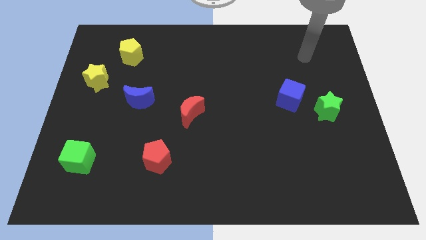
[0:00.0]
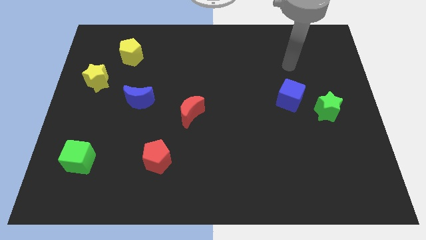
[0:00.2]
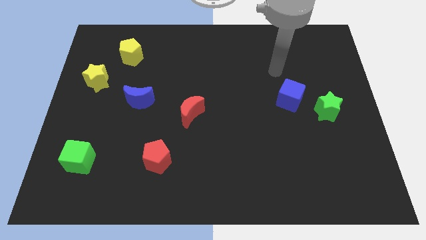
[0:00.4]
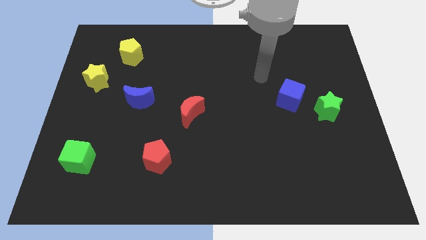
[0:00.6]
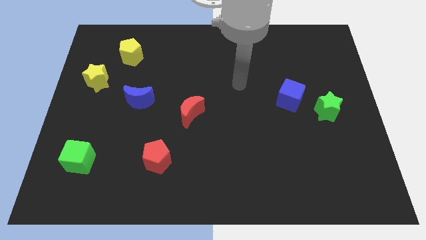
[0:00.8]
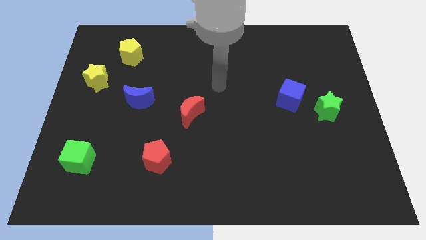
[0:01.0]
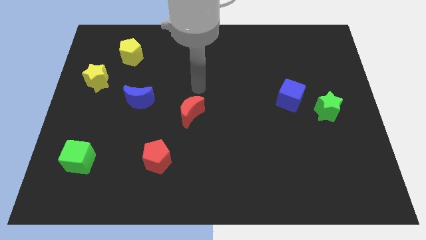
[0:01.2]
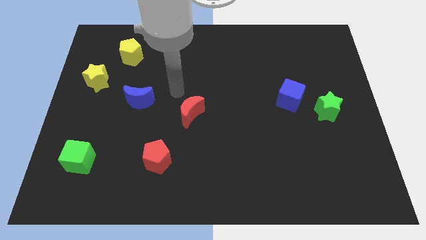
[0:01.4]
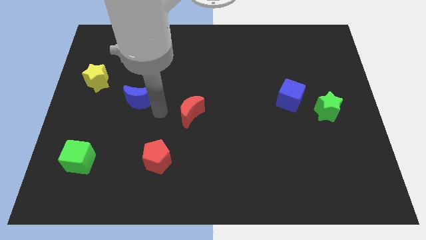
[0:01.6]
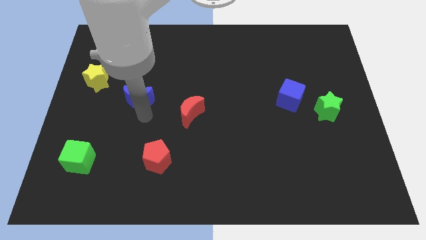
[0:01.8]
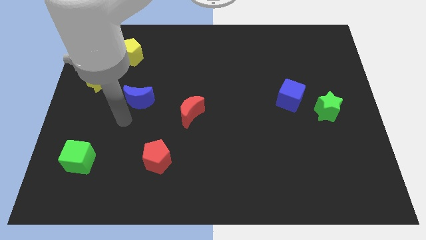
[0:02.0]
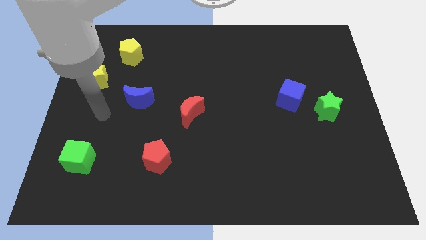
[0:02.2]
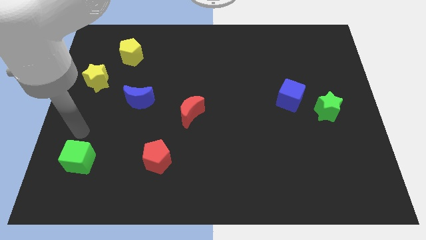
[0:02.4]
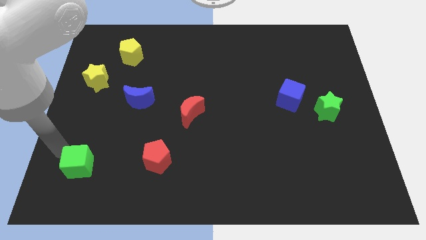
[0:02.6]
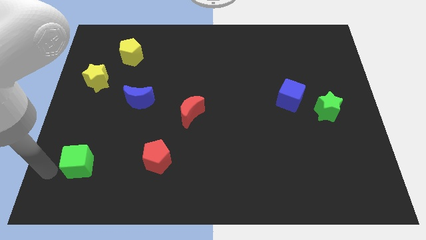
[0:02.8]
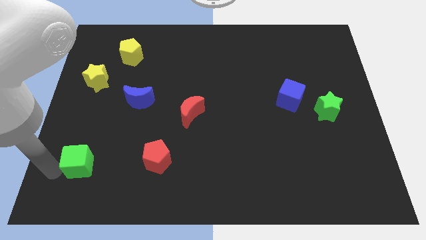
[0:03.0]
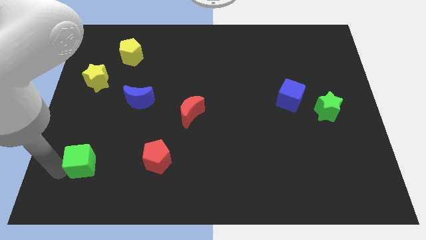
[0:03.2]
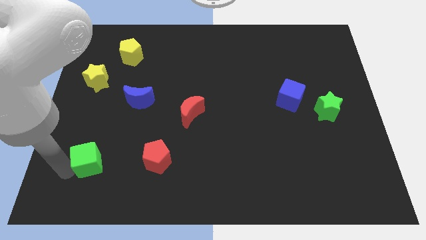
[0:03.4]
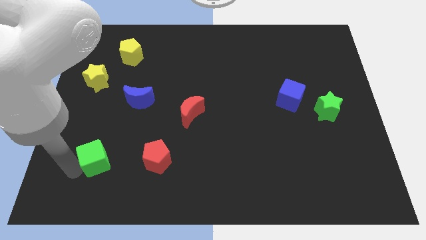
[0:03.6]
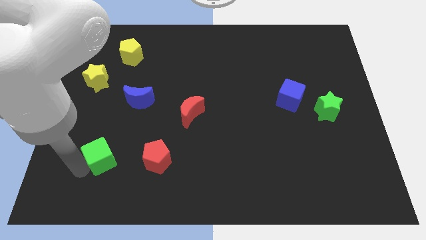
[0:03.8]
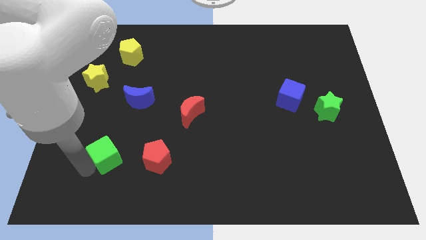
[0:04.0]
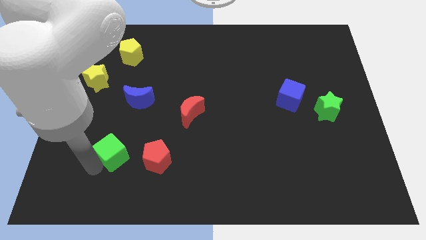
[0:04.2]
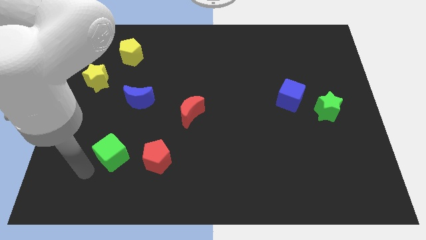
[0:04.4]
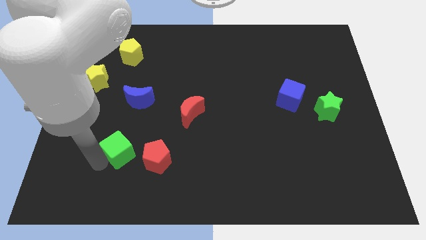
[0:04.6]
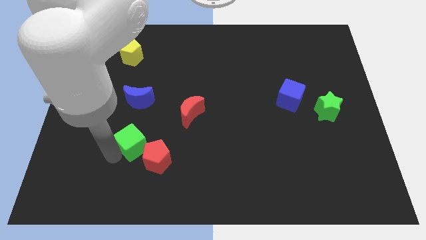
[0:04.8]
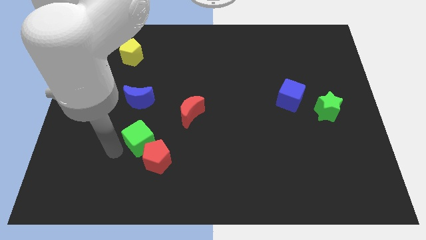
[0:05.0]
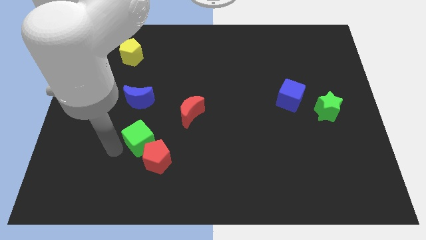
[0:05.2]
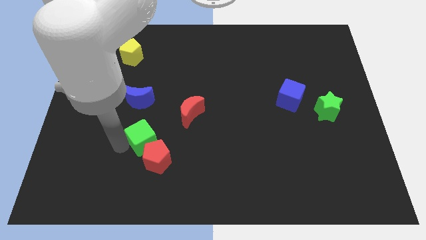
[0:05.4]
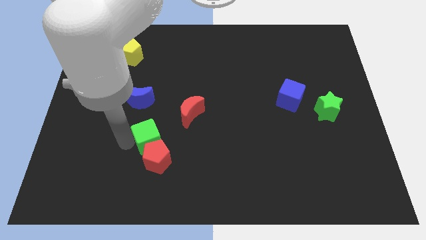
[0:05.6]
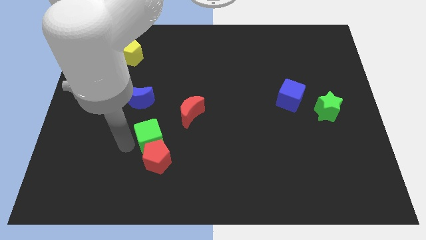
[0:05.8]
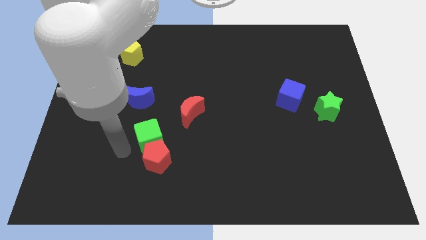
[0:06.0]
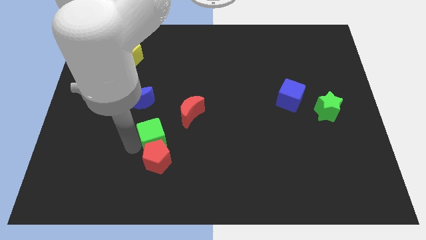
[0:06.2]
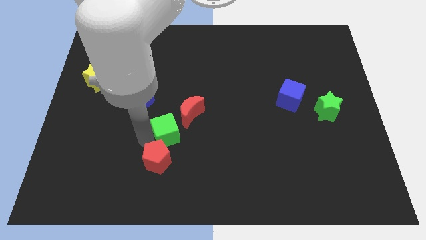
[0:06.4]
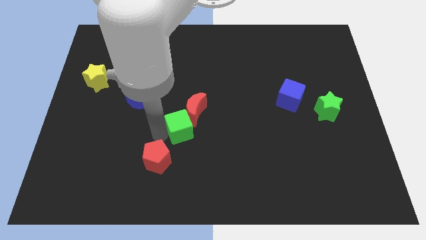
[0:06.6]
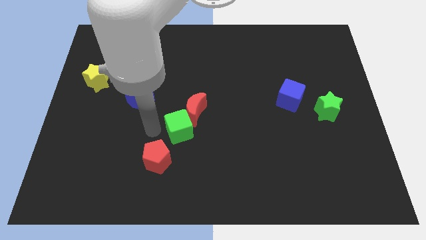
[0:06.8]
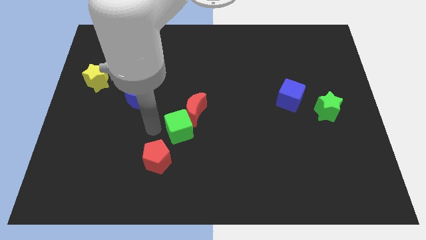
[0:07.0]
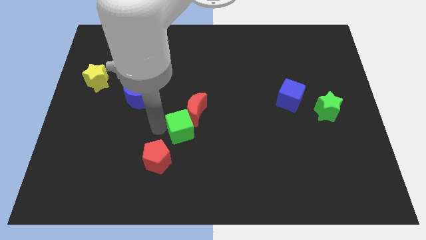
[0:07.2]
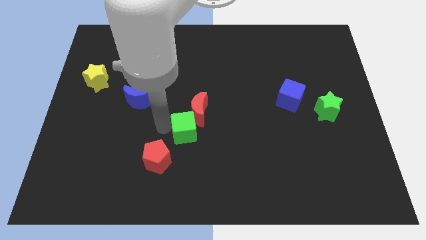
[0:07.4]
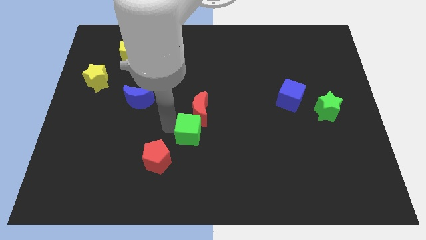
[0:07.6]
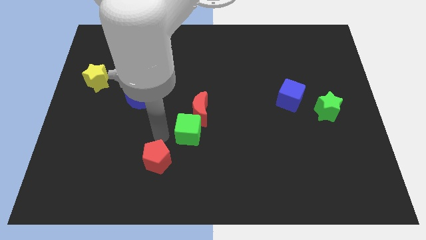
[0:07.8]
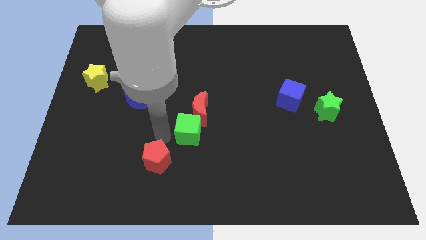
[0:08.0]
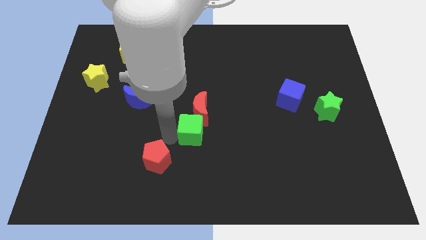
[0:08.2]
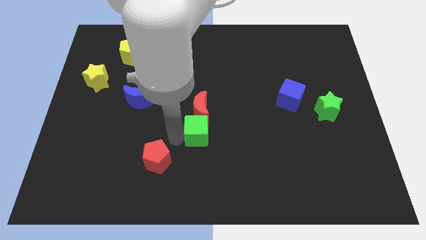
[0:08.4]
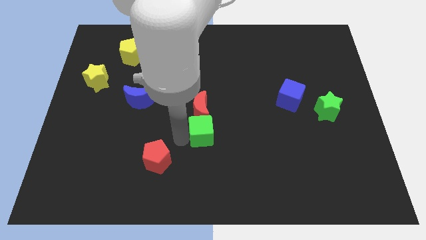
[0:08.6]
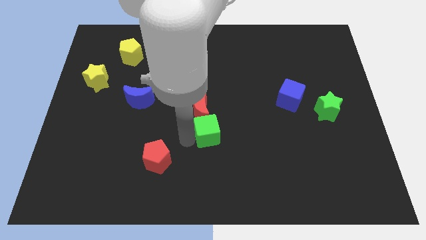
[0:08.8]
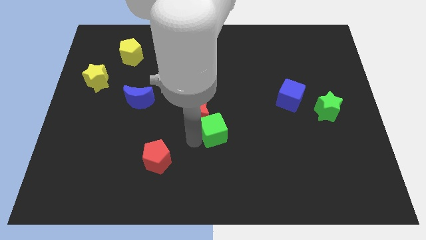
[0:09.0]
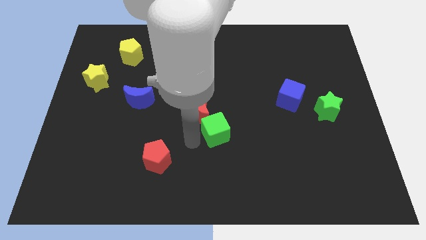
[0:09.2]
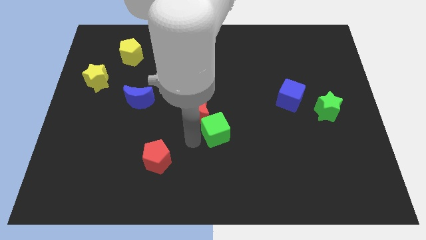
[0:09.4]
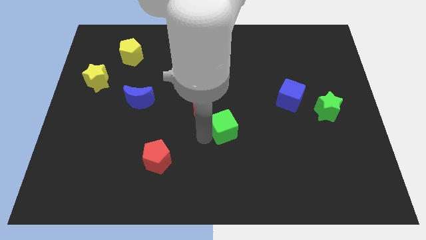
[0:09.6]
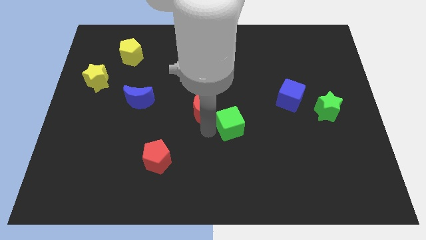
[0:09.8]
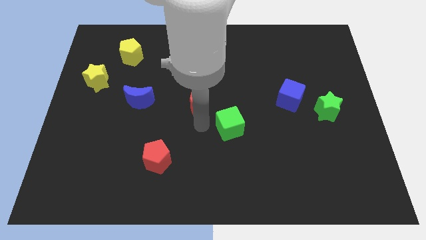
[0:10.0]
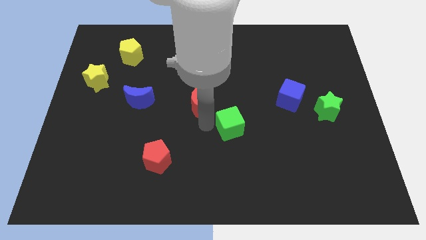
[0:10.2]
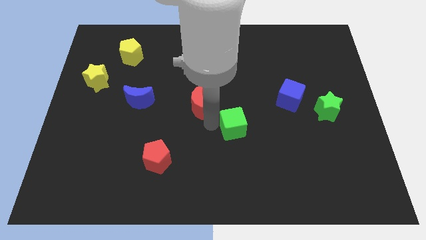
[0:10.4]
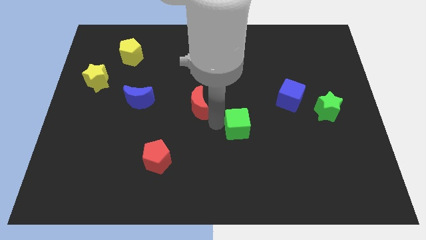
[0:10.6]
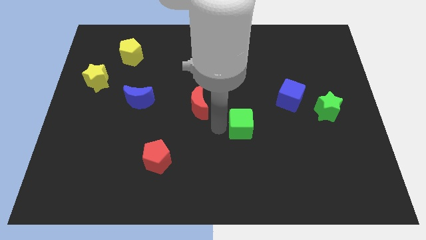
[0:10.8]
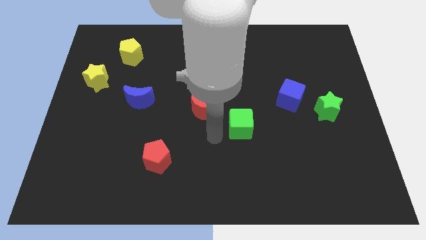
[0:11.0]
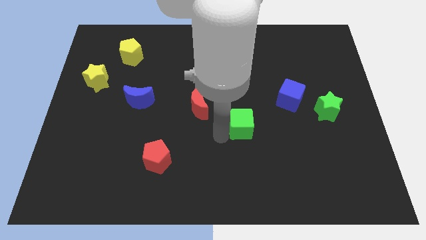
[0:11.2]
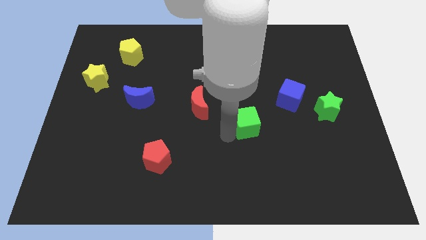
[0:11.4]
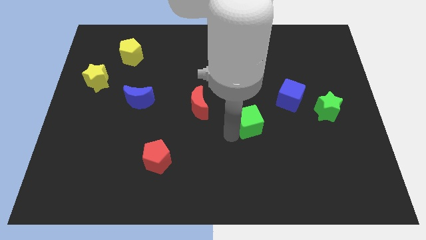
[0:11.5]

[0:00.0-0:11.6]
move the green cube to the bottom left of the blue cube

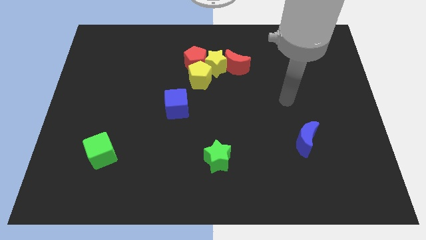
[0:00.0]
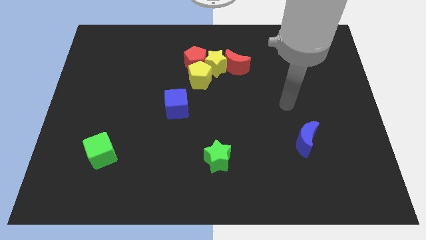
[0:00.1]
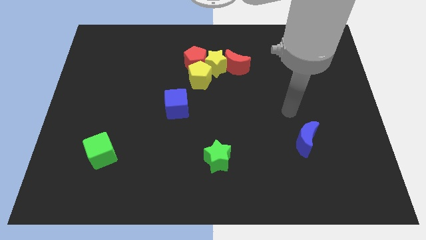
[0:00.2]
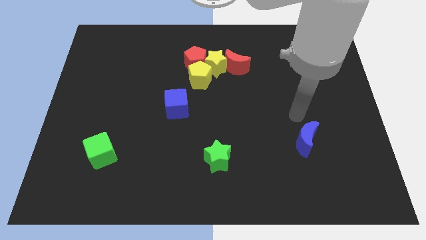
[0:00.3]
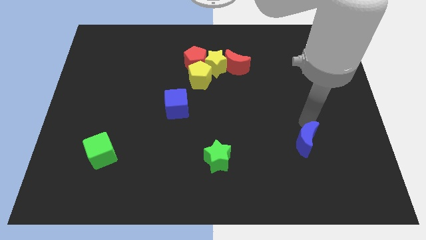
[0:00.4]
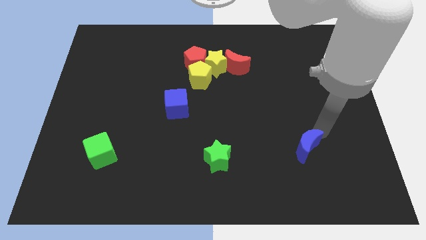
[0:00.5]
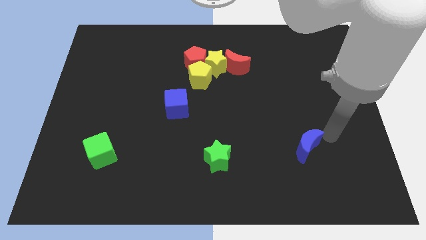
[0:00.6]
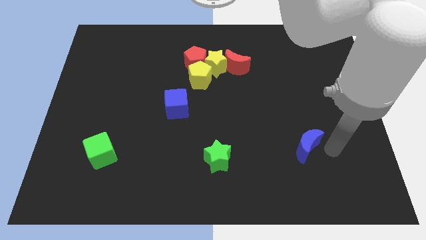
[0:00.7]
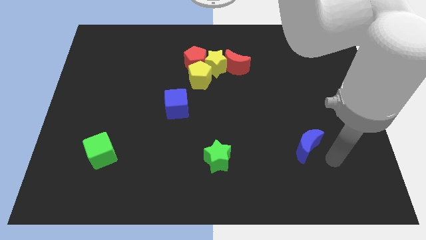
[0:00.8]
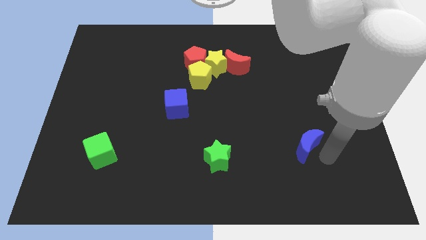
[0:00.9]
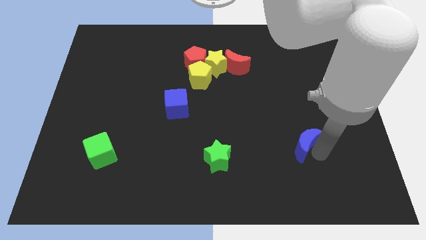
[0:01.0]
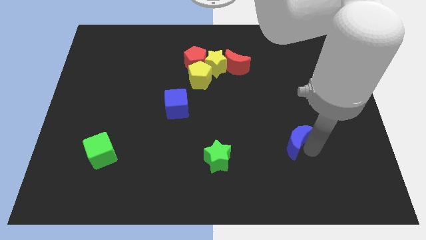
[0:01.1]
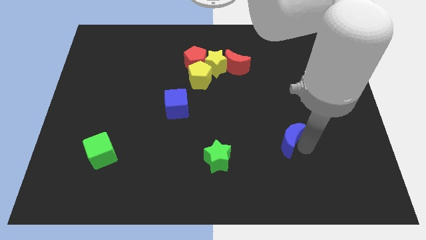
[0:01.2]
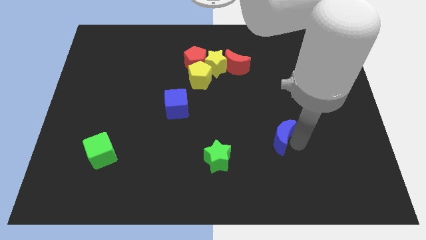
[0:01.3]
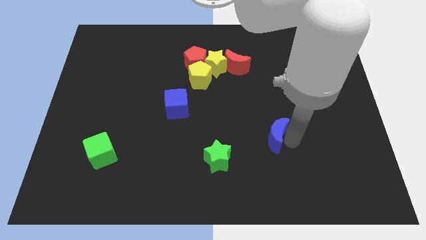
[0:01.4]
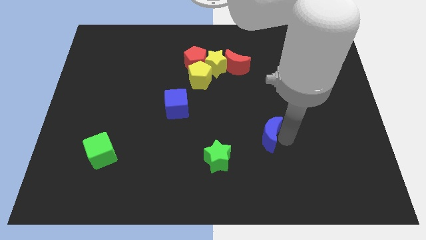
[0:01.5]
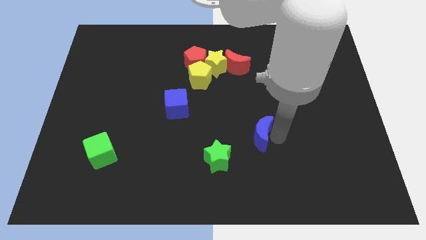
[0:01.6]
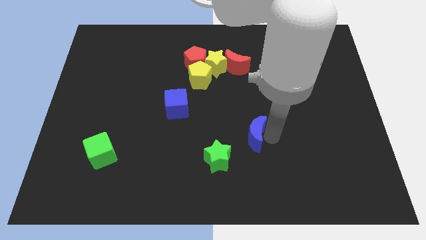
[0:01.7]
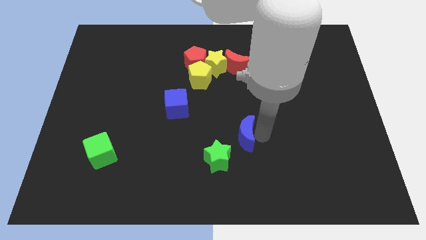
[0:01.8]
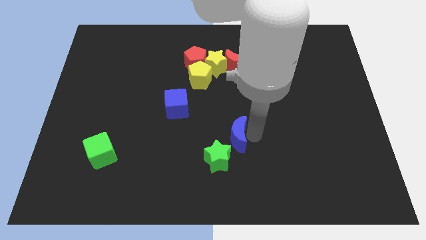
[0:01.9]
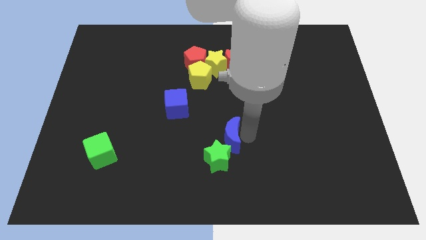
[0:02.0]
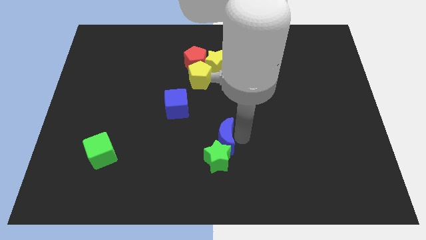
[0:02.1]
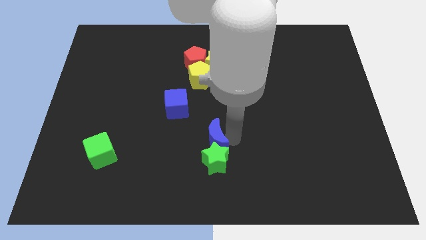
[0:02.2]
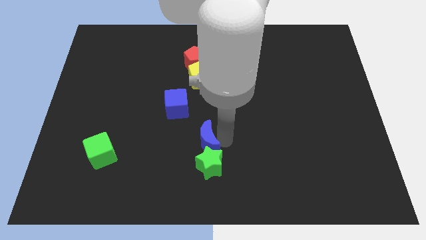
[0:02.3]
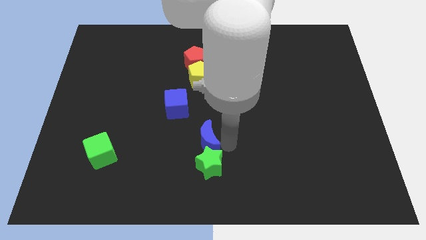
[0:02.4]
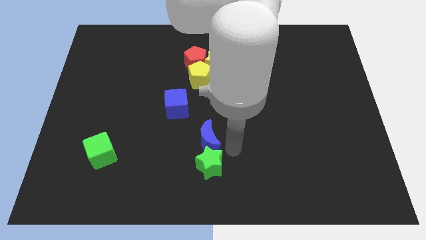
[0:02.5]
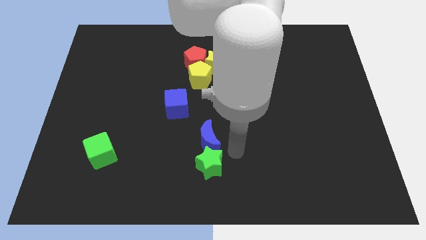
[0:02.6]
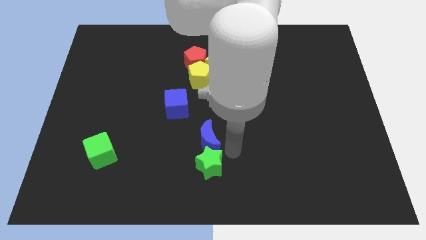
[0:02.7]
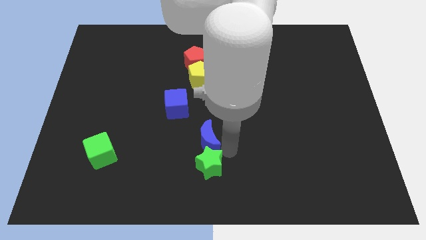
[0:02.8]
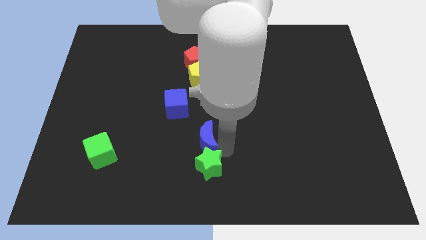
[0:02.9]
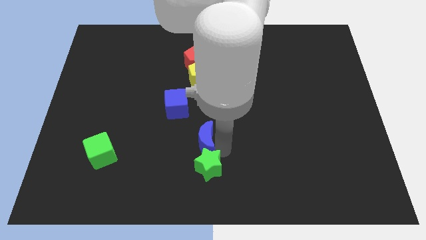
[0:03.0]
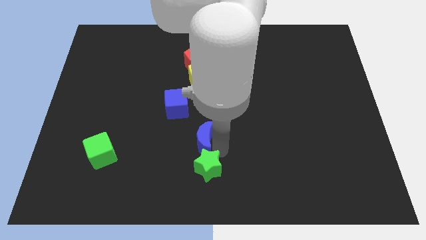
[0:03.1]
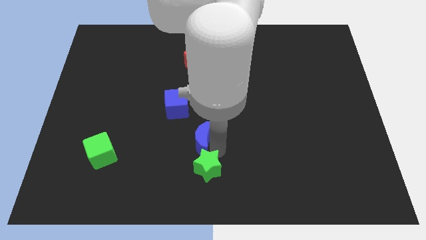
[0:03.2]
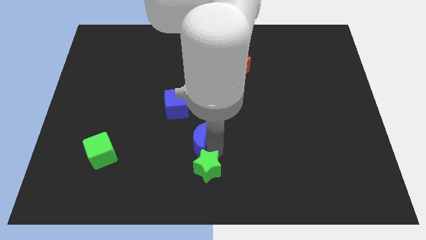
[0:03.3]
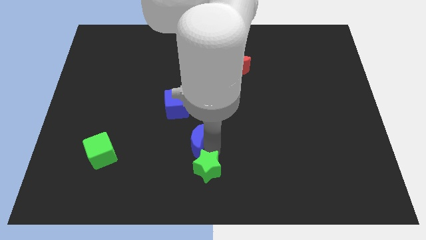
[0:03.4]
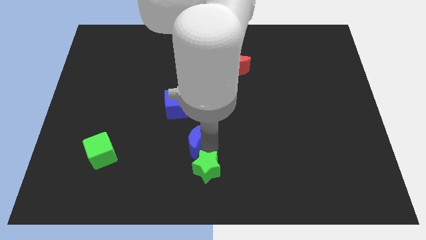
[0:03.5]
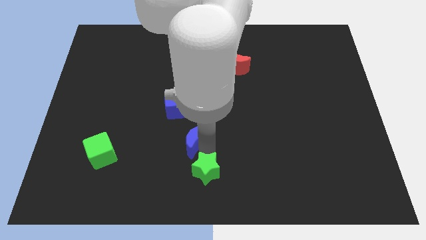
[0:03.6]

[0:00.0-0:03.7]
put the blue moon below the blue cube
